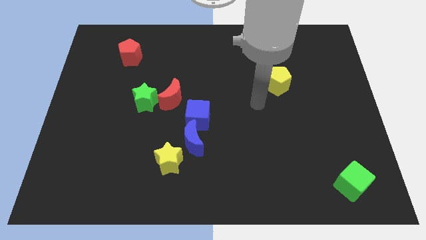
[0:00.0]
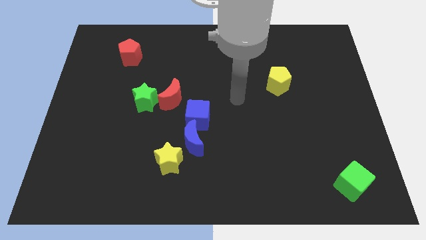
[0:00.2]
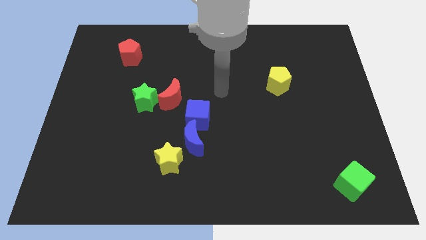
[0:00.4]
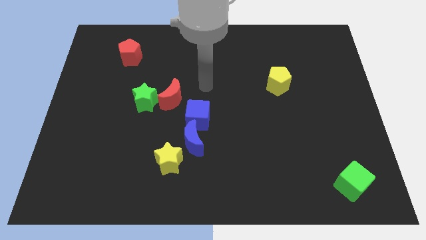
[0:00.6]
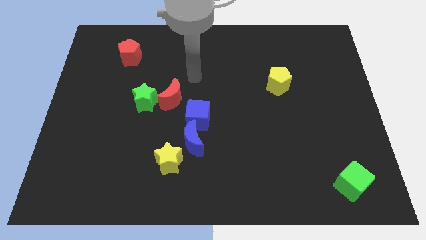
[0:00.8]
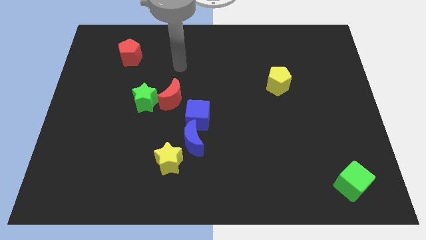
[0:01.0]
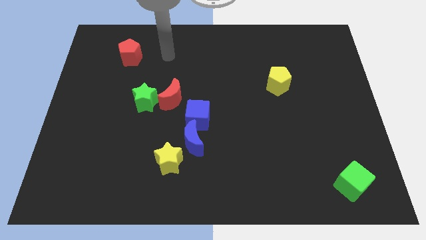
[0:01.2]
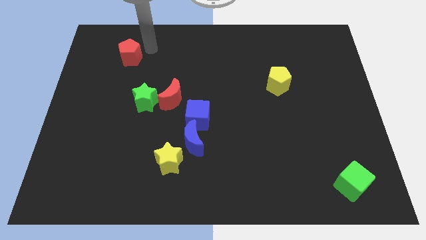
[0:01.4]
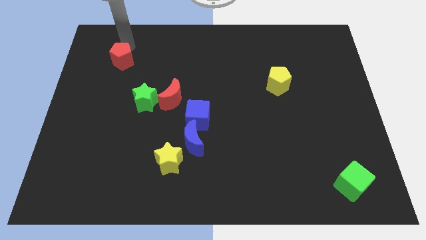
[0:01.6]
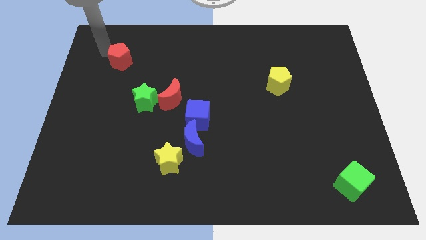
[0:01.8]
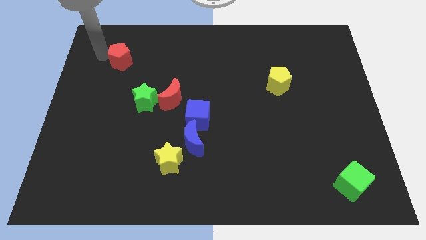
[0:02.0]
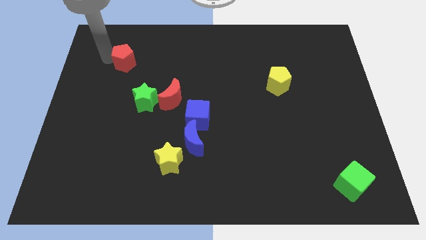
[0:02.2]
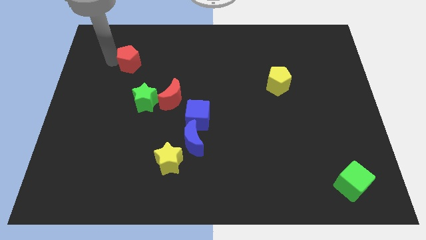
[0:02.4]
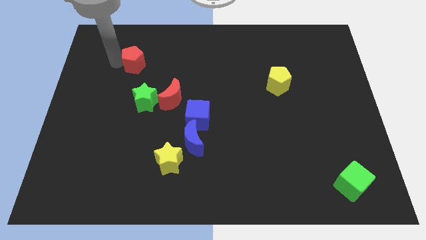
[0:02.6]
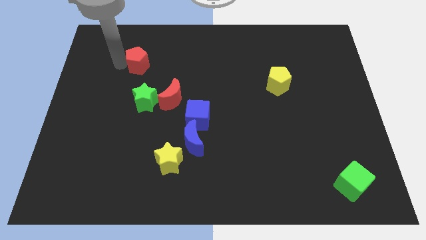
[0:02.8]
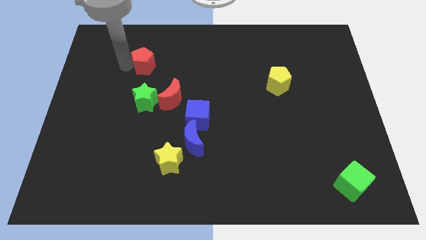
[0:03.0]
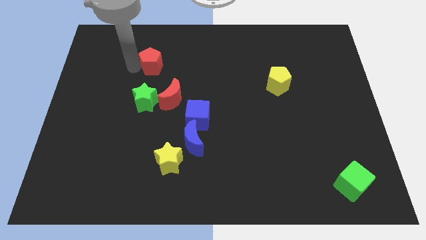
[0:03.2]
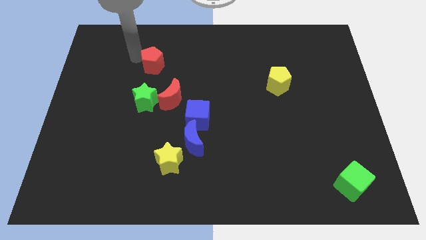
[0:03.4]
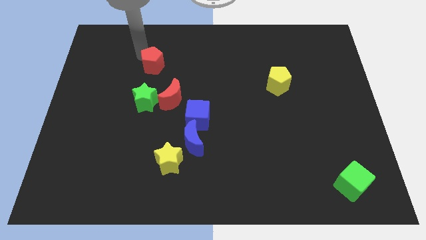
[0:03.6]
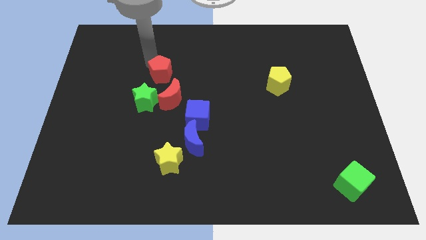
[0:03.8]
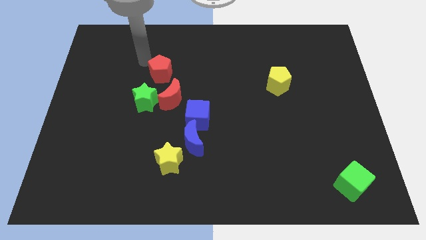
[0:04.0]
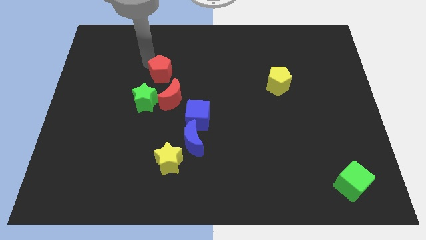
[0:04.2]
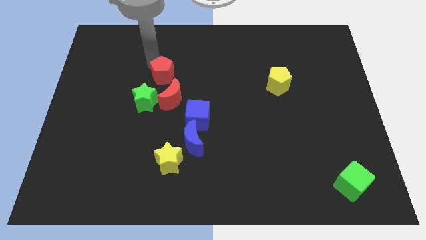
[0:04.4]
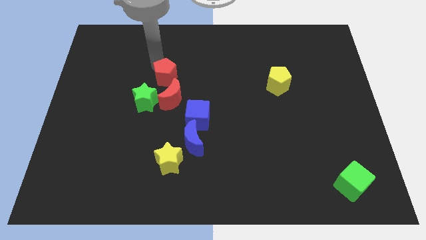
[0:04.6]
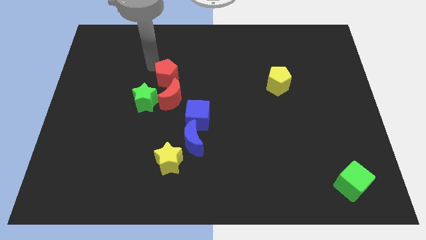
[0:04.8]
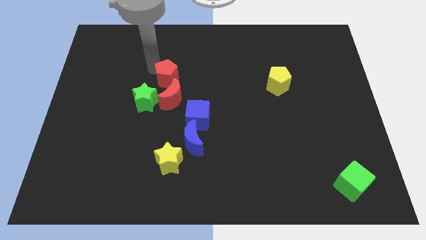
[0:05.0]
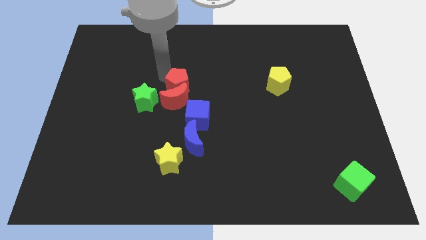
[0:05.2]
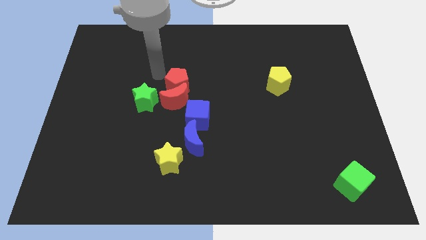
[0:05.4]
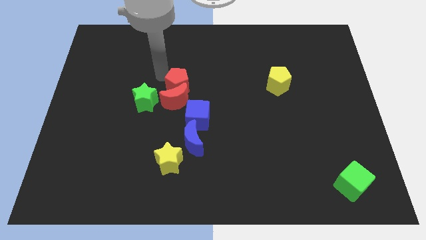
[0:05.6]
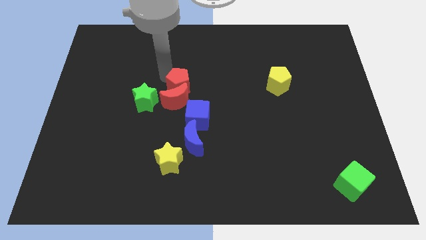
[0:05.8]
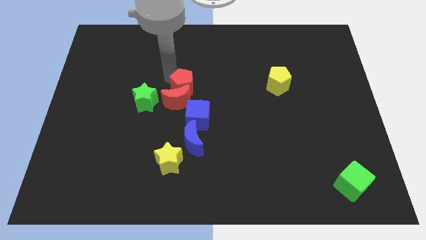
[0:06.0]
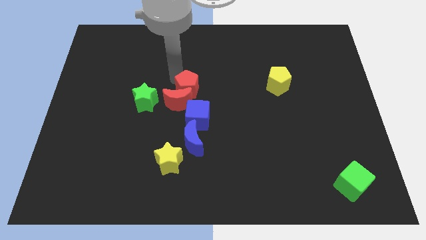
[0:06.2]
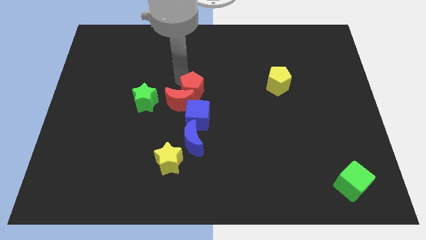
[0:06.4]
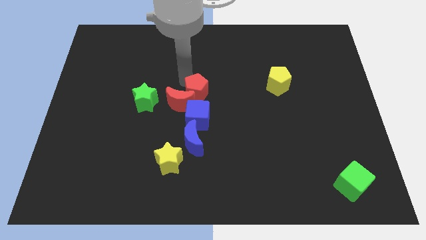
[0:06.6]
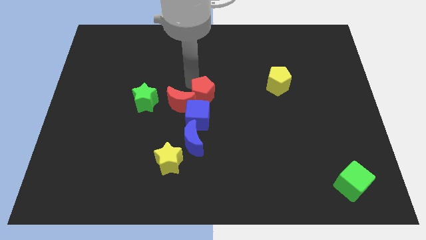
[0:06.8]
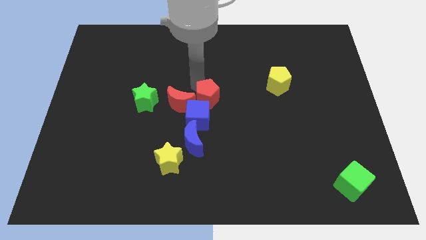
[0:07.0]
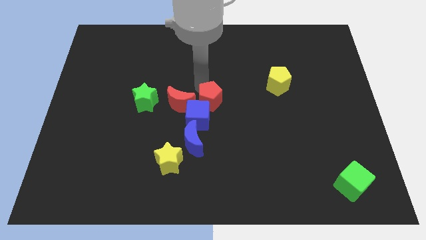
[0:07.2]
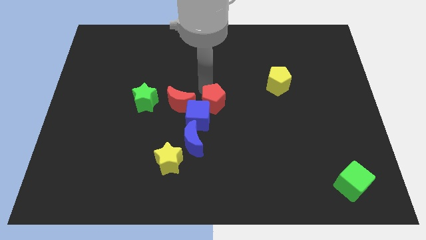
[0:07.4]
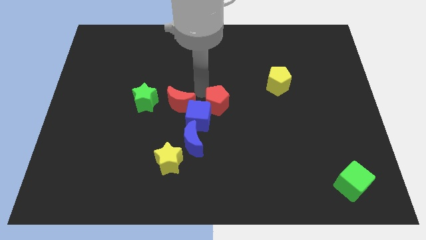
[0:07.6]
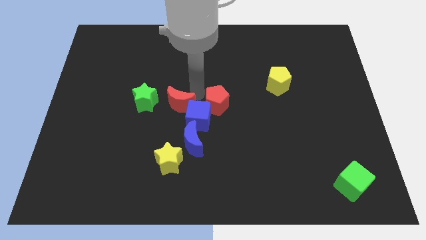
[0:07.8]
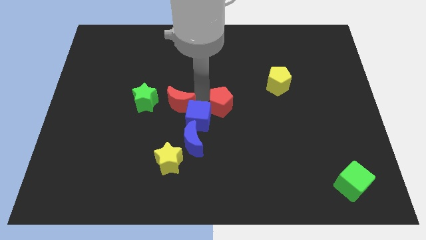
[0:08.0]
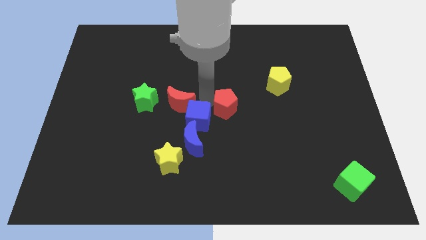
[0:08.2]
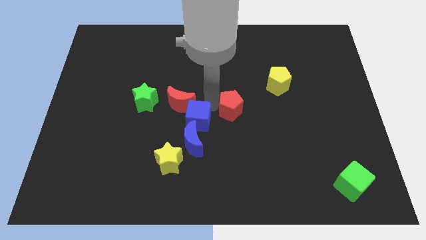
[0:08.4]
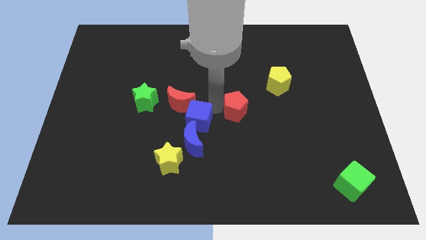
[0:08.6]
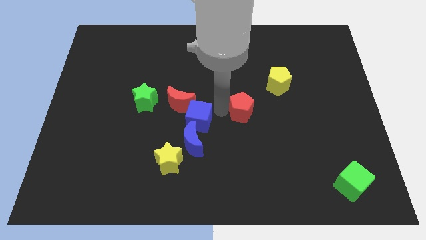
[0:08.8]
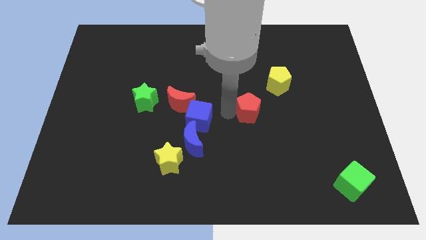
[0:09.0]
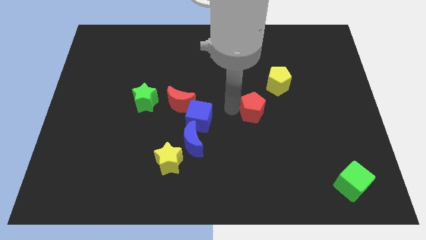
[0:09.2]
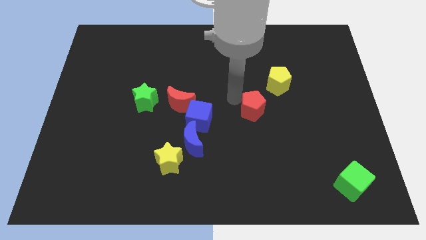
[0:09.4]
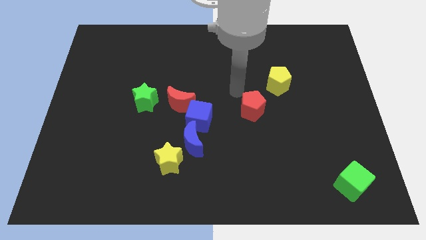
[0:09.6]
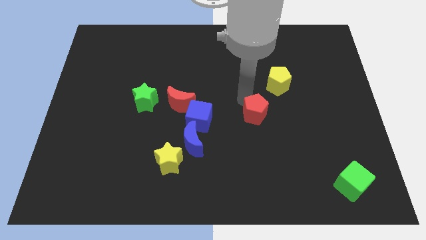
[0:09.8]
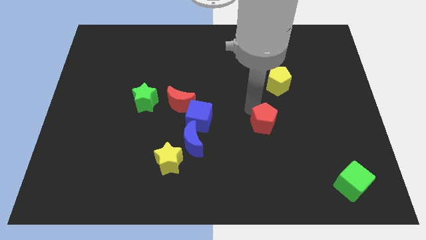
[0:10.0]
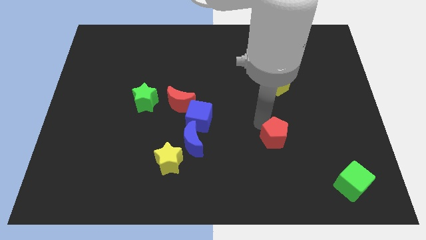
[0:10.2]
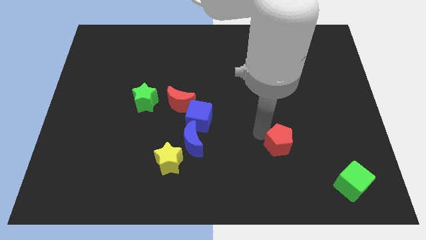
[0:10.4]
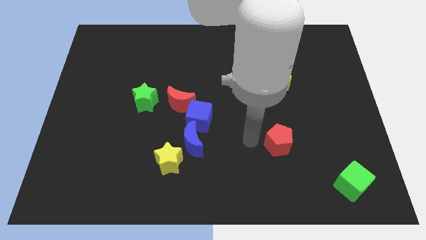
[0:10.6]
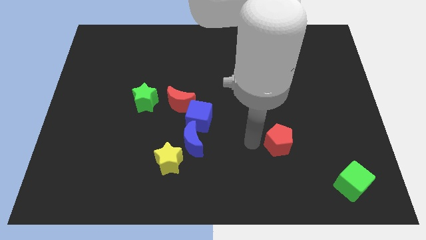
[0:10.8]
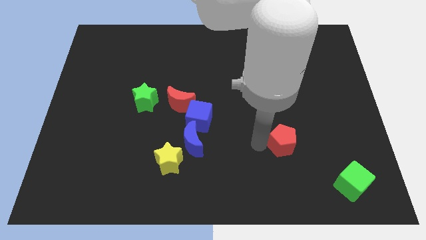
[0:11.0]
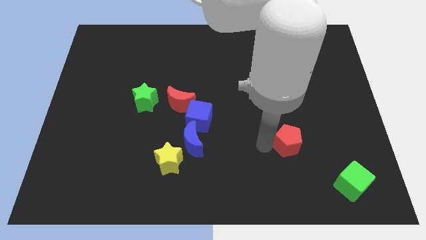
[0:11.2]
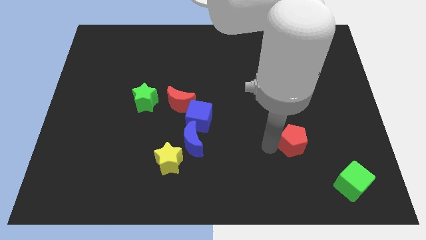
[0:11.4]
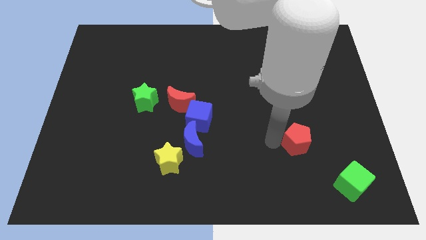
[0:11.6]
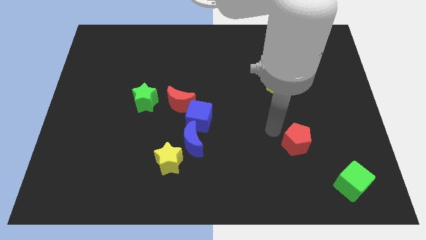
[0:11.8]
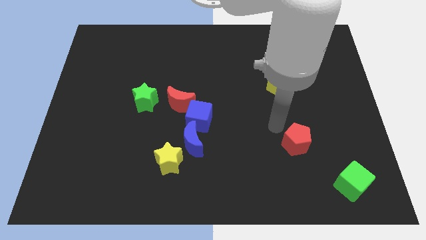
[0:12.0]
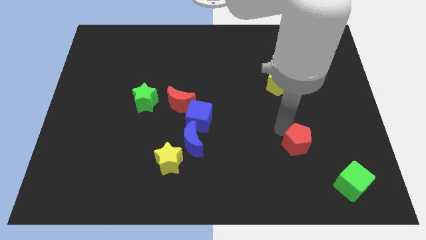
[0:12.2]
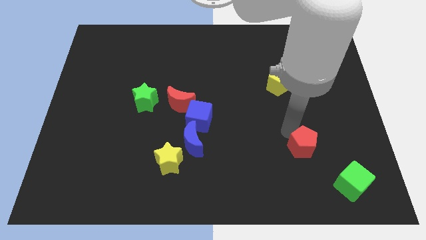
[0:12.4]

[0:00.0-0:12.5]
push the red pentagon diagonally up and to the left of the green cube

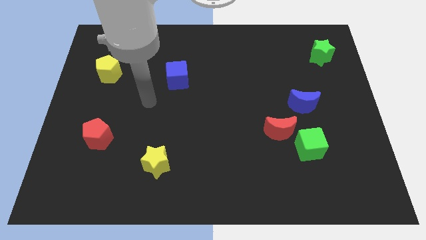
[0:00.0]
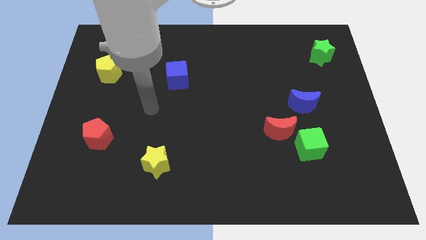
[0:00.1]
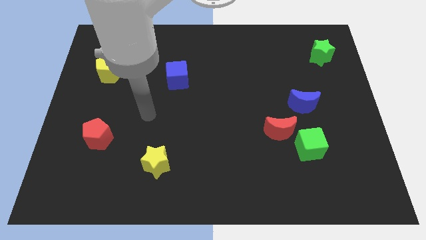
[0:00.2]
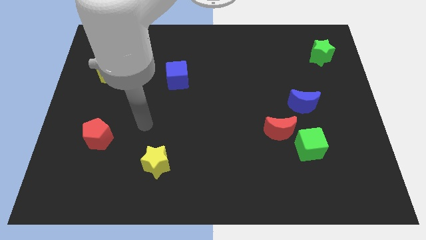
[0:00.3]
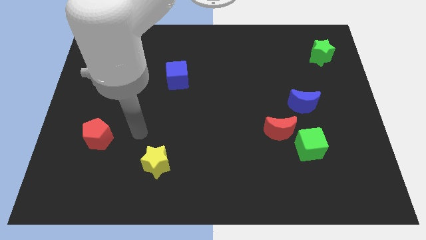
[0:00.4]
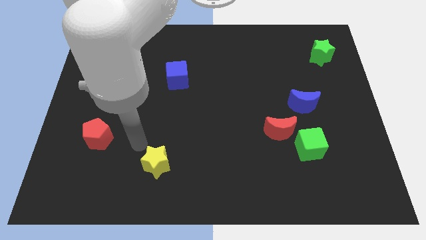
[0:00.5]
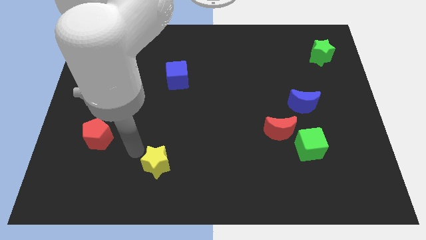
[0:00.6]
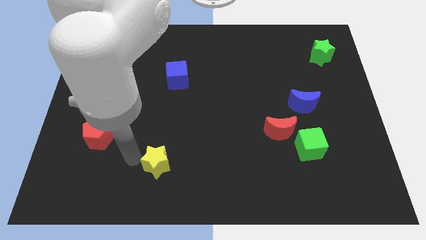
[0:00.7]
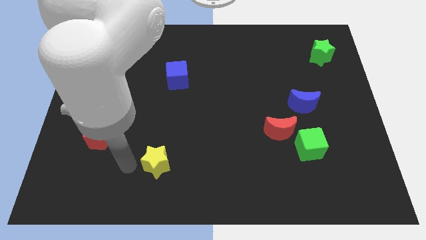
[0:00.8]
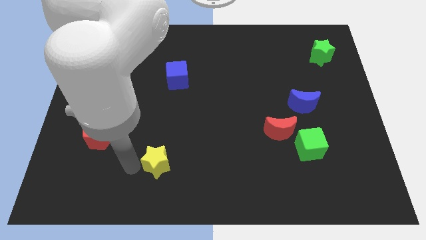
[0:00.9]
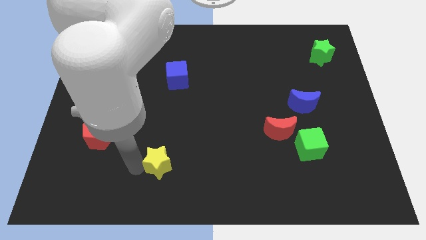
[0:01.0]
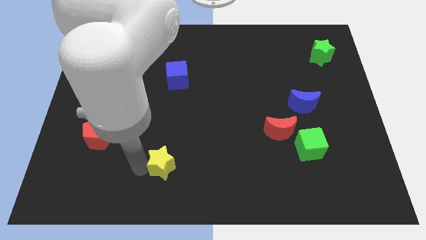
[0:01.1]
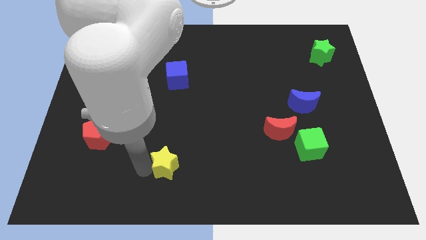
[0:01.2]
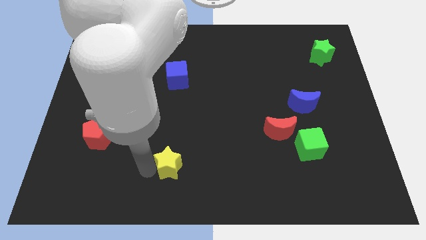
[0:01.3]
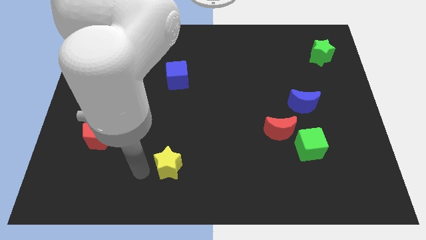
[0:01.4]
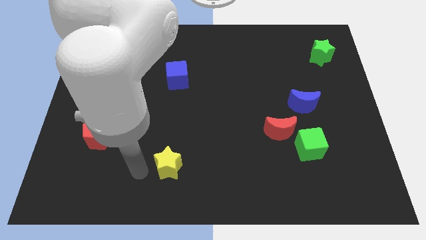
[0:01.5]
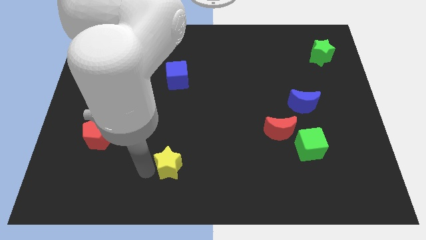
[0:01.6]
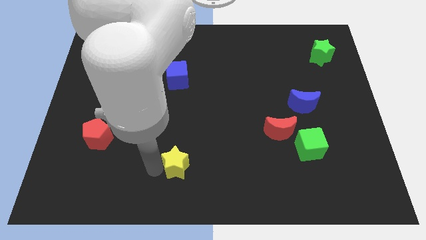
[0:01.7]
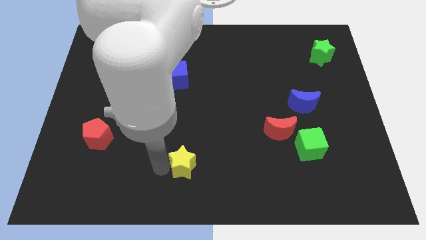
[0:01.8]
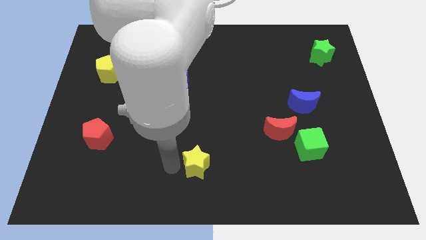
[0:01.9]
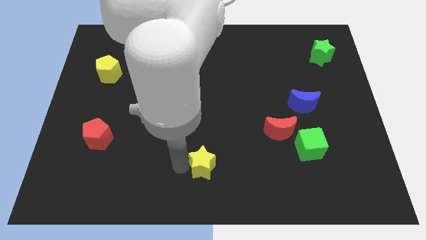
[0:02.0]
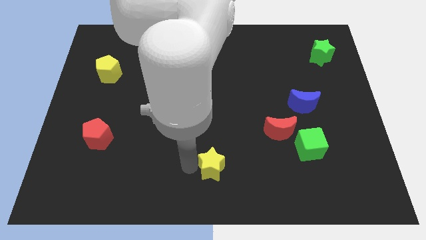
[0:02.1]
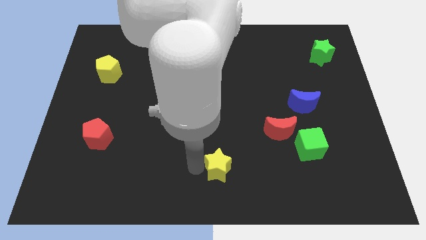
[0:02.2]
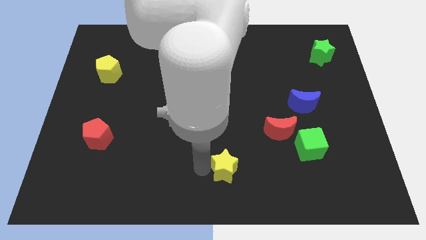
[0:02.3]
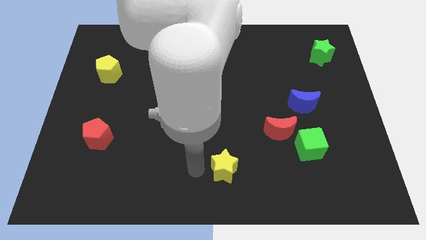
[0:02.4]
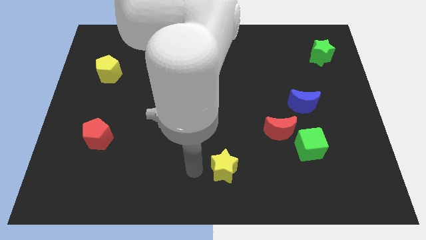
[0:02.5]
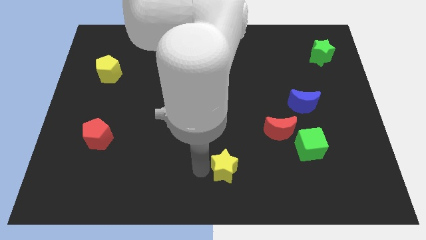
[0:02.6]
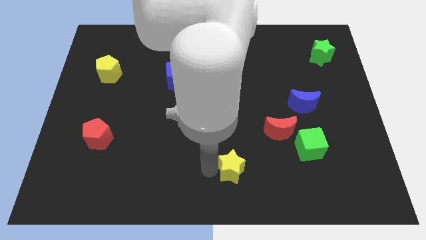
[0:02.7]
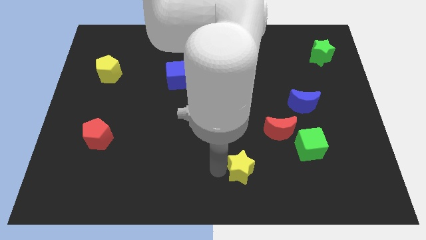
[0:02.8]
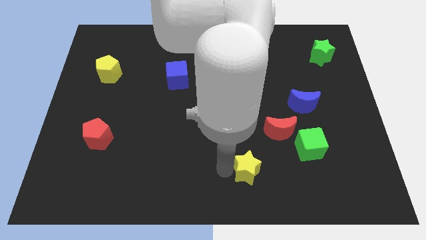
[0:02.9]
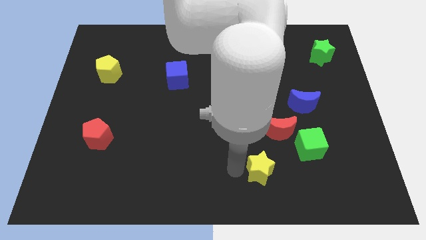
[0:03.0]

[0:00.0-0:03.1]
put the yellow star to the bottom of the red moon
